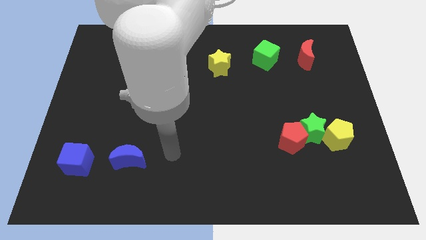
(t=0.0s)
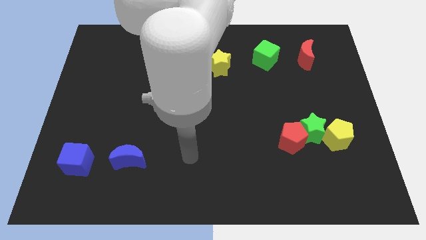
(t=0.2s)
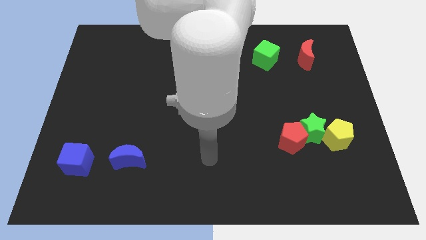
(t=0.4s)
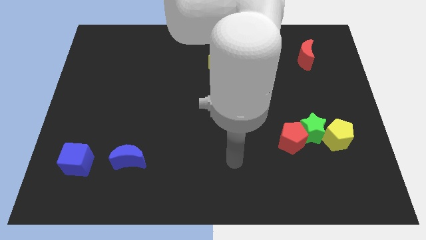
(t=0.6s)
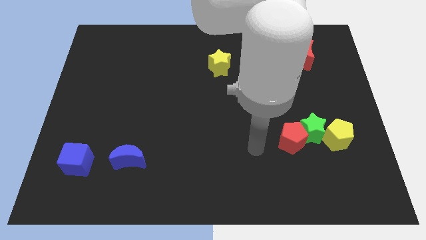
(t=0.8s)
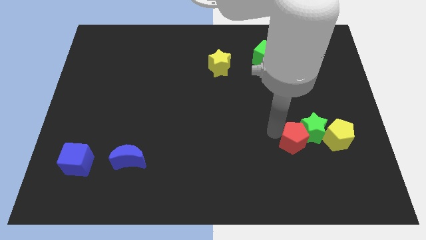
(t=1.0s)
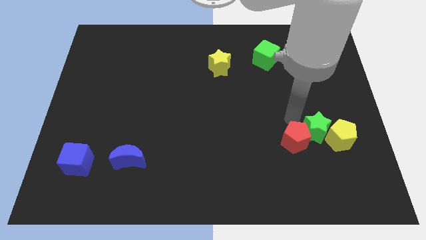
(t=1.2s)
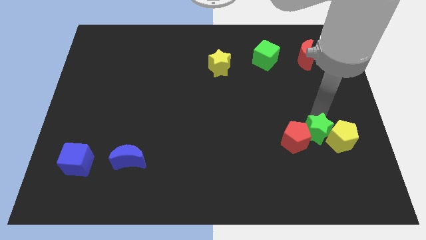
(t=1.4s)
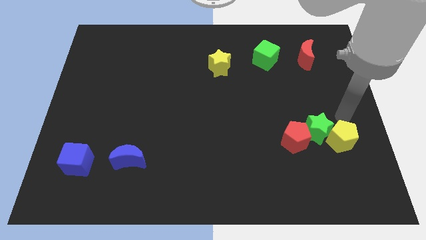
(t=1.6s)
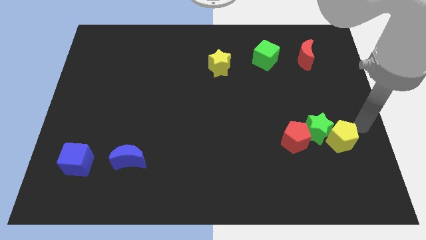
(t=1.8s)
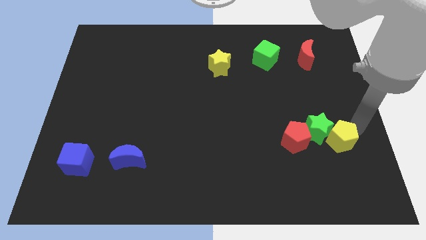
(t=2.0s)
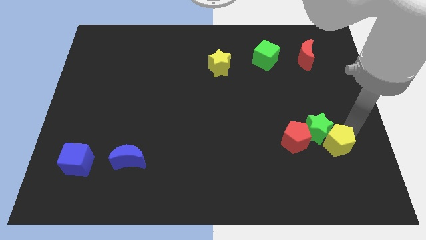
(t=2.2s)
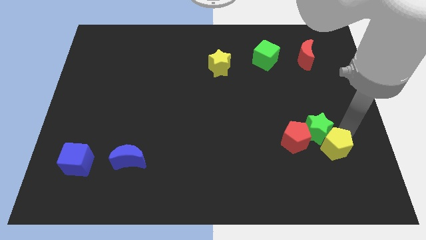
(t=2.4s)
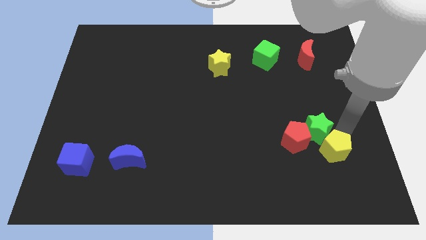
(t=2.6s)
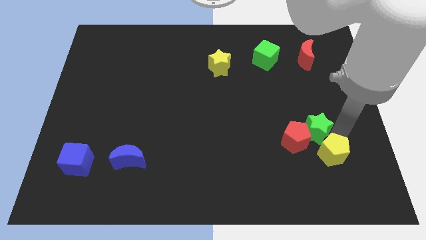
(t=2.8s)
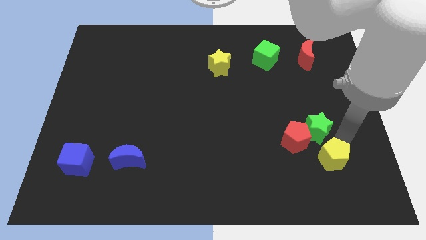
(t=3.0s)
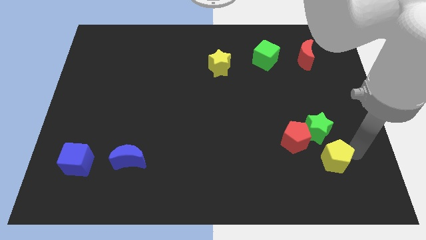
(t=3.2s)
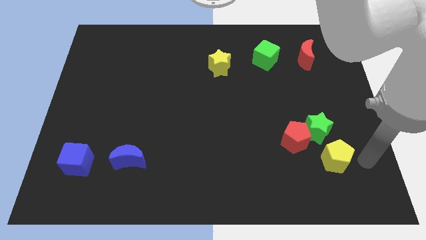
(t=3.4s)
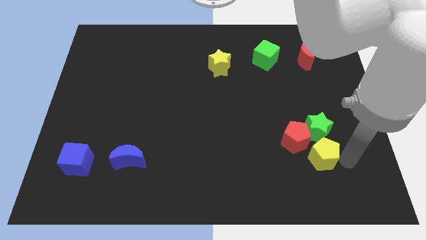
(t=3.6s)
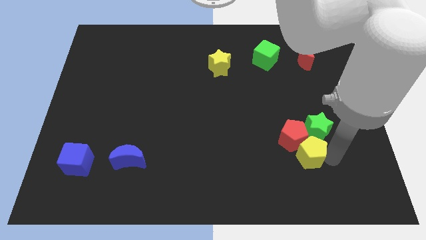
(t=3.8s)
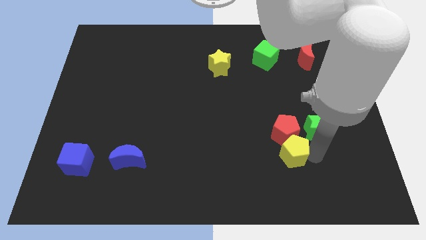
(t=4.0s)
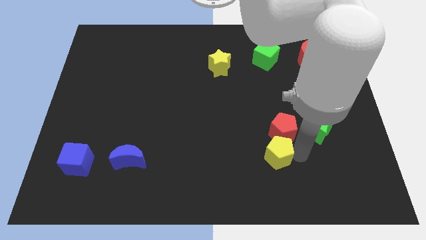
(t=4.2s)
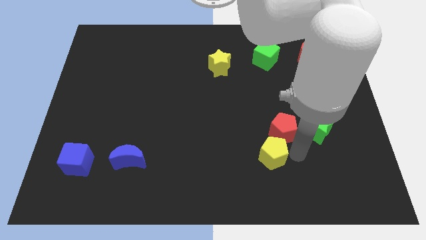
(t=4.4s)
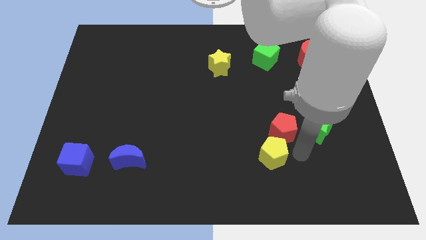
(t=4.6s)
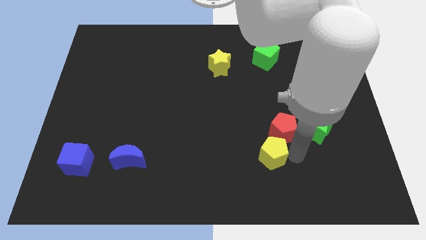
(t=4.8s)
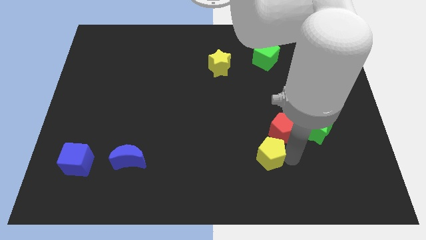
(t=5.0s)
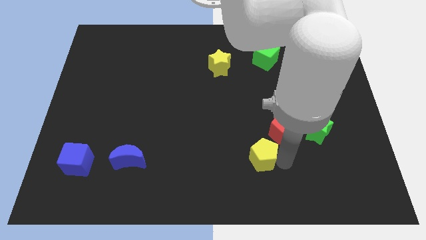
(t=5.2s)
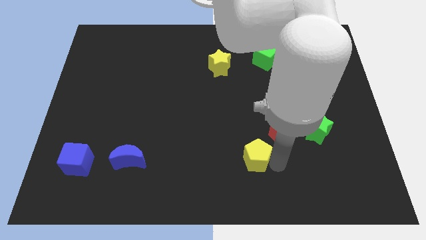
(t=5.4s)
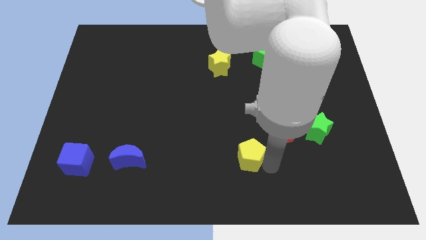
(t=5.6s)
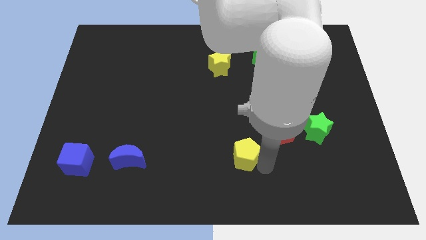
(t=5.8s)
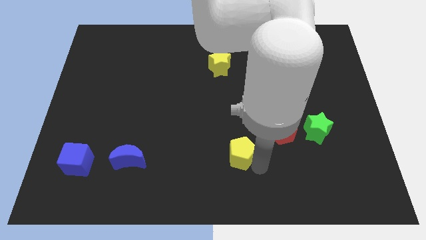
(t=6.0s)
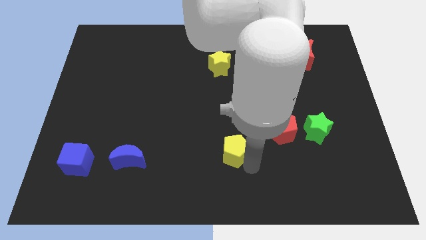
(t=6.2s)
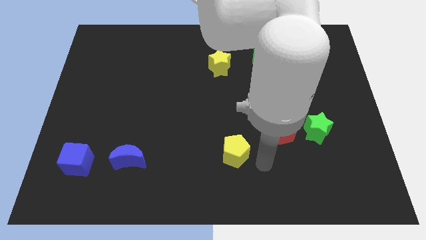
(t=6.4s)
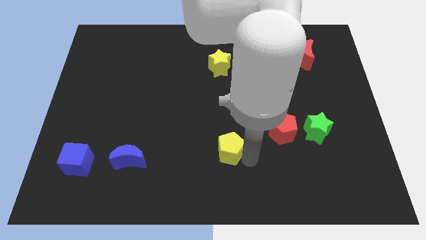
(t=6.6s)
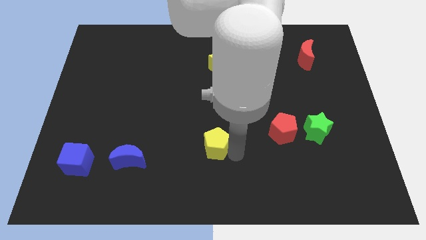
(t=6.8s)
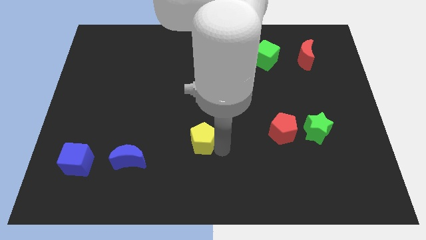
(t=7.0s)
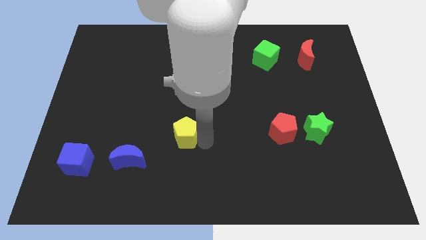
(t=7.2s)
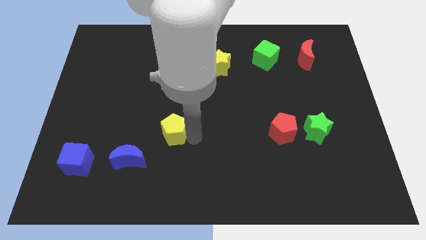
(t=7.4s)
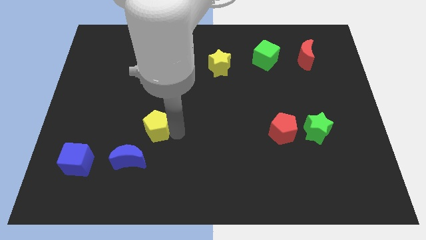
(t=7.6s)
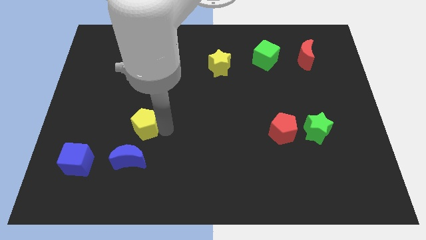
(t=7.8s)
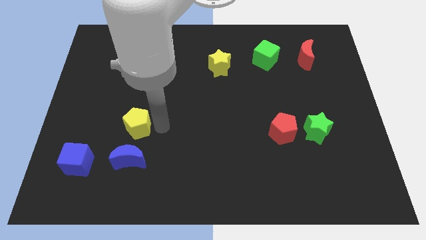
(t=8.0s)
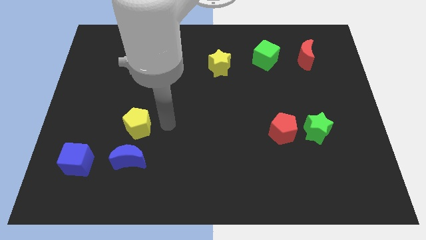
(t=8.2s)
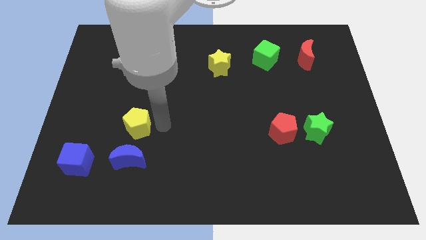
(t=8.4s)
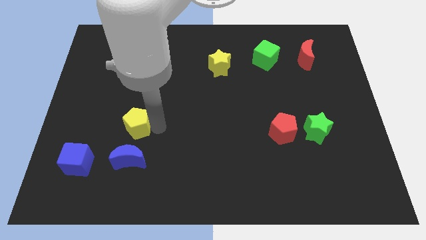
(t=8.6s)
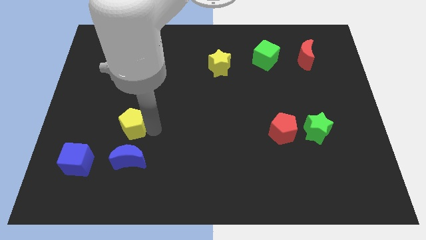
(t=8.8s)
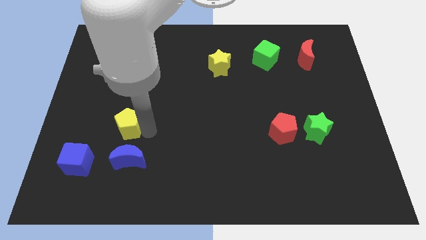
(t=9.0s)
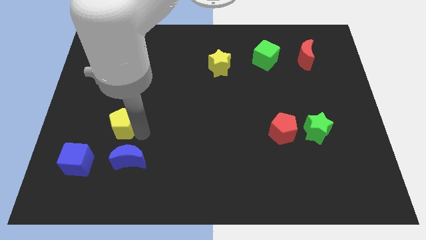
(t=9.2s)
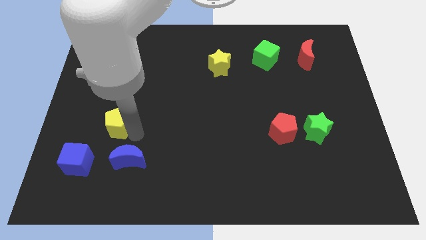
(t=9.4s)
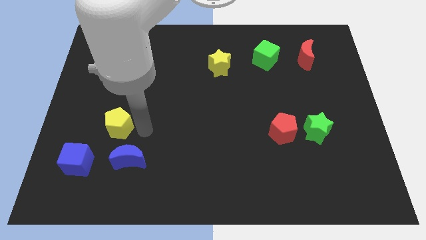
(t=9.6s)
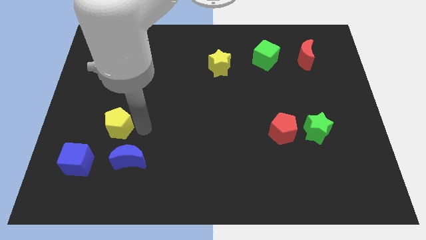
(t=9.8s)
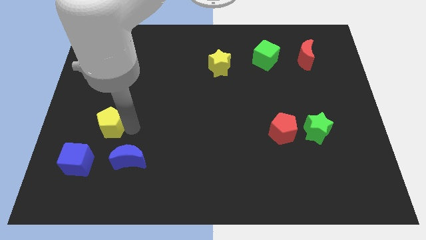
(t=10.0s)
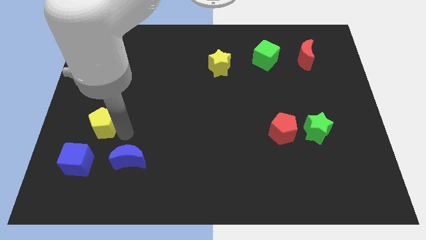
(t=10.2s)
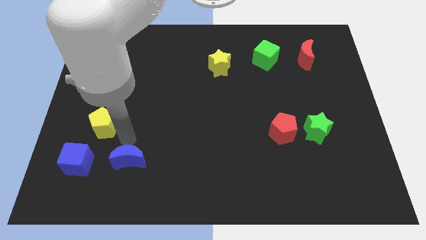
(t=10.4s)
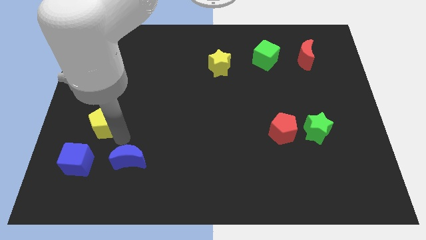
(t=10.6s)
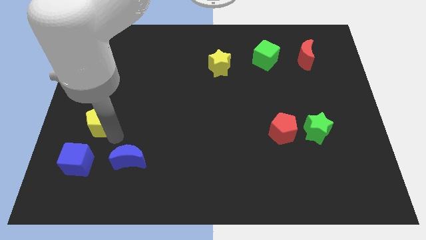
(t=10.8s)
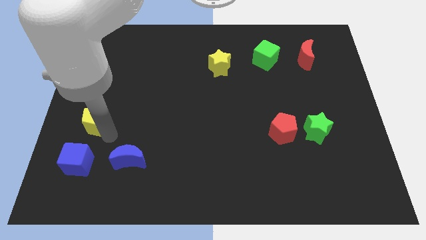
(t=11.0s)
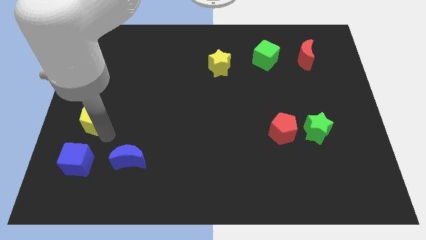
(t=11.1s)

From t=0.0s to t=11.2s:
move the yellow pentagon to the center left

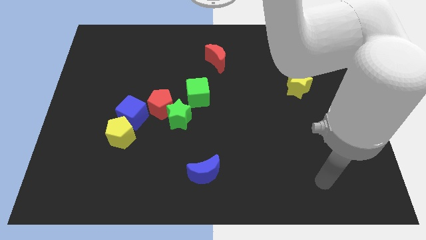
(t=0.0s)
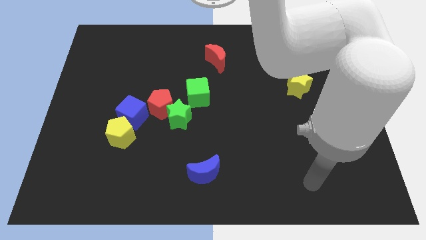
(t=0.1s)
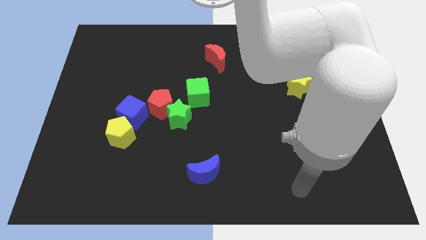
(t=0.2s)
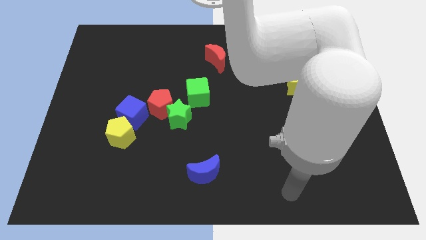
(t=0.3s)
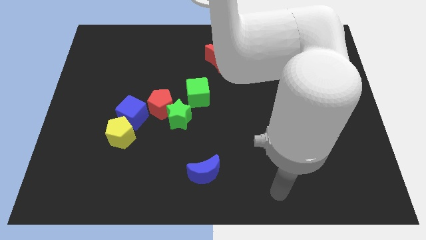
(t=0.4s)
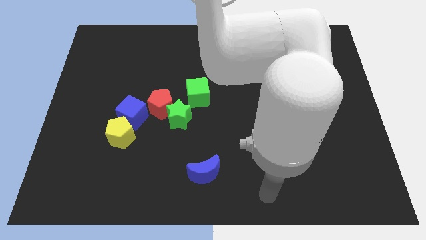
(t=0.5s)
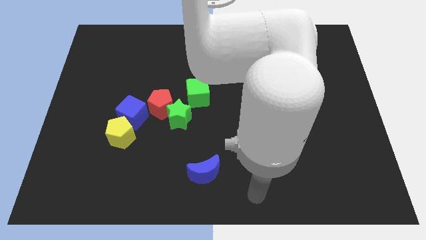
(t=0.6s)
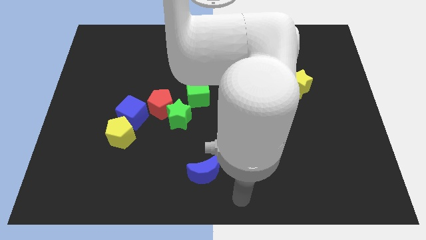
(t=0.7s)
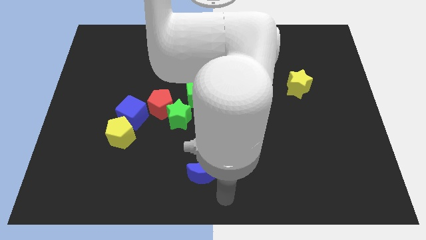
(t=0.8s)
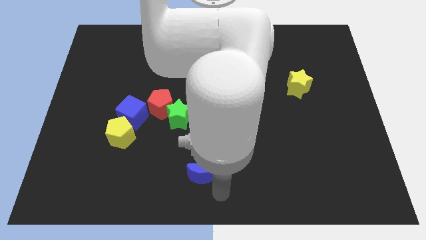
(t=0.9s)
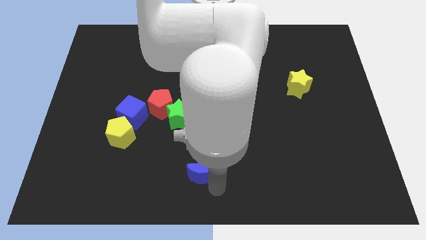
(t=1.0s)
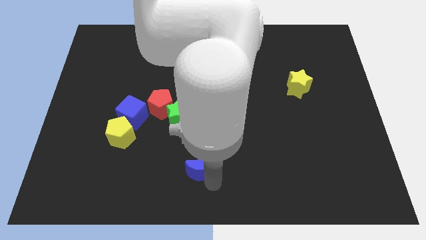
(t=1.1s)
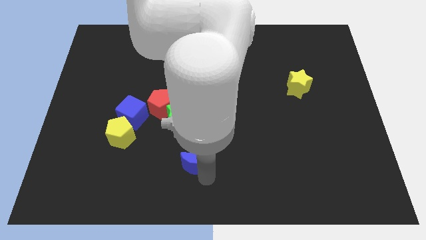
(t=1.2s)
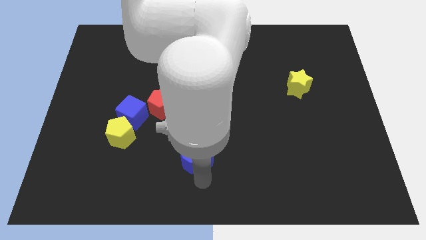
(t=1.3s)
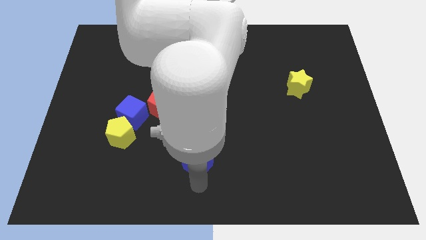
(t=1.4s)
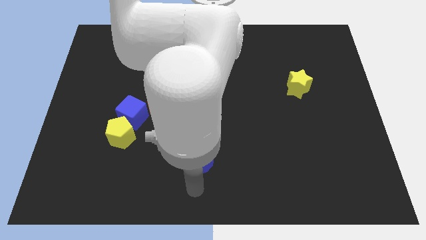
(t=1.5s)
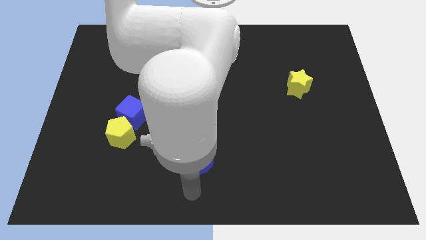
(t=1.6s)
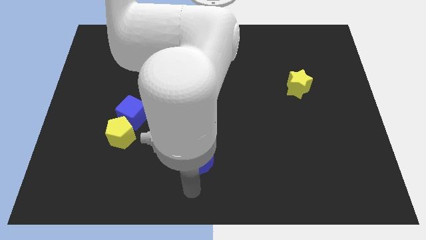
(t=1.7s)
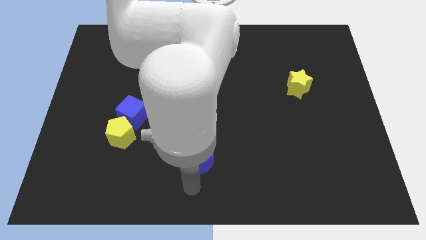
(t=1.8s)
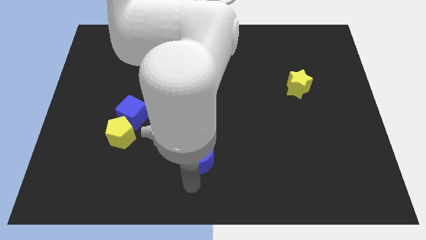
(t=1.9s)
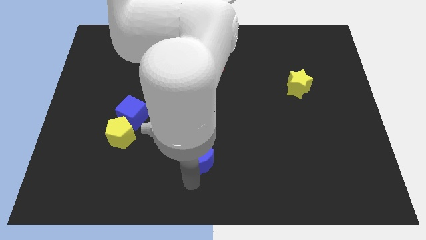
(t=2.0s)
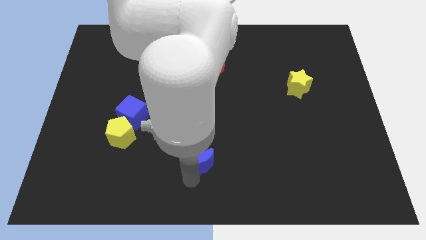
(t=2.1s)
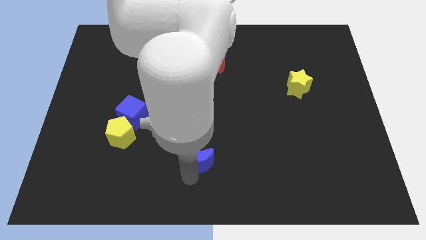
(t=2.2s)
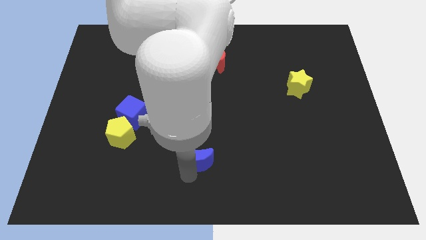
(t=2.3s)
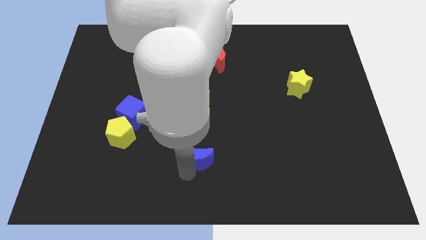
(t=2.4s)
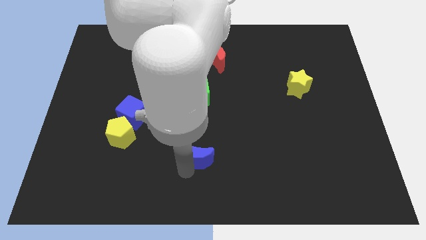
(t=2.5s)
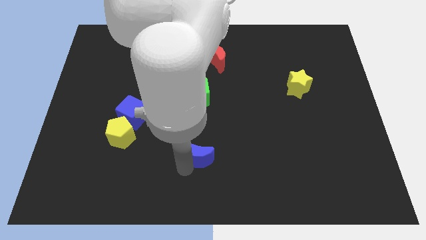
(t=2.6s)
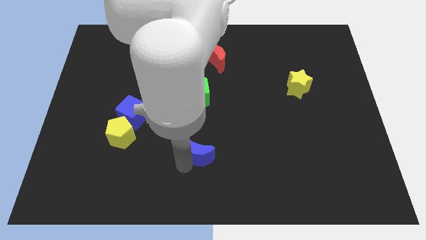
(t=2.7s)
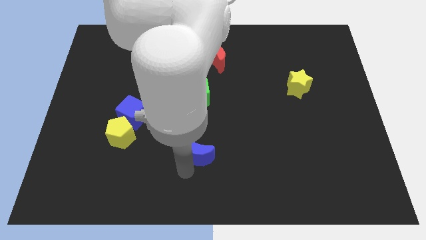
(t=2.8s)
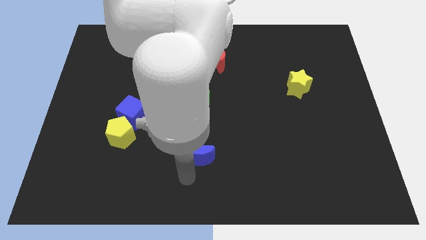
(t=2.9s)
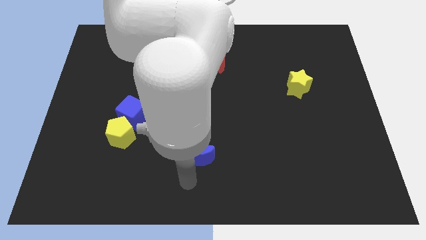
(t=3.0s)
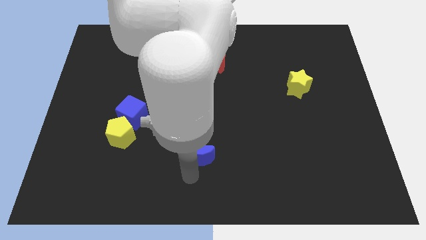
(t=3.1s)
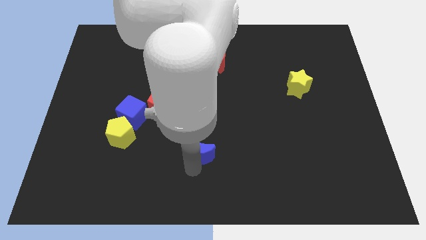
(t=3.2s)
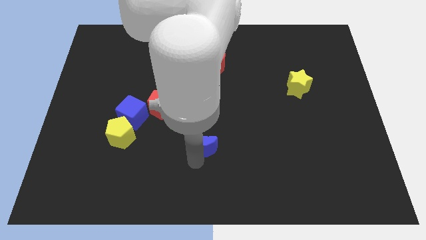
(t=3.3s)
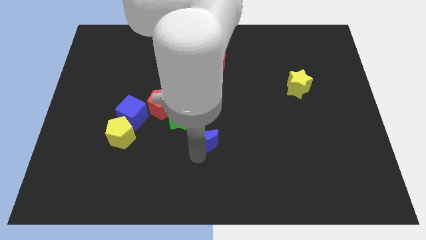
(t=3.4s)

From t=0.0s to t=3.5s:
put the blue moon to the center
